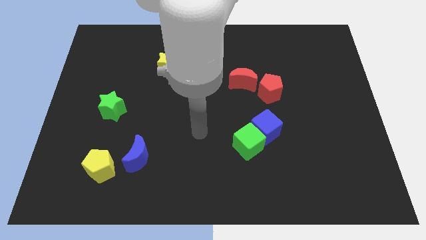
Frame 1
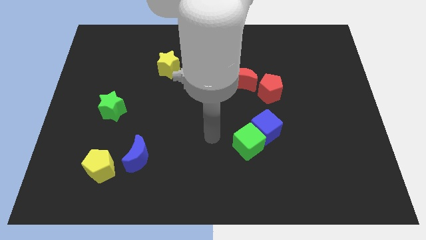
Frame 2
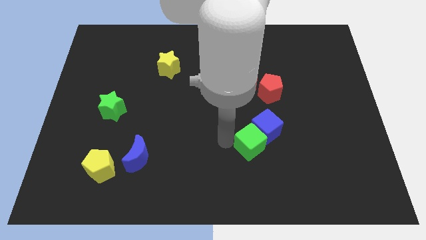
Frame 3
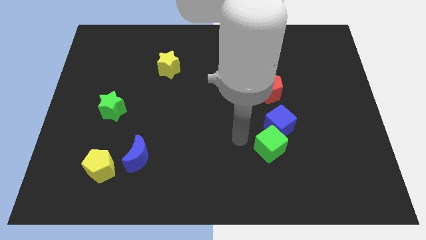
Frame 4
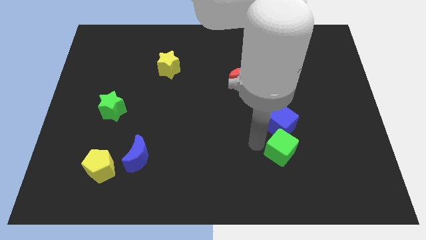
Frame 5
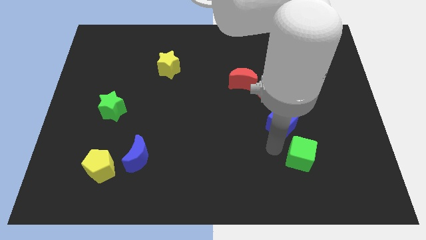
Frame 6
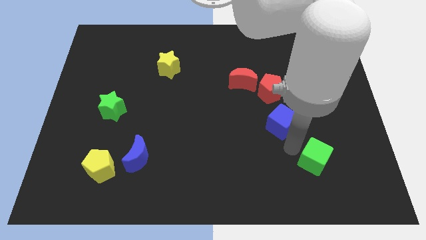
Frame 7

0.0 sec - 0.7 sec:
separate the blue cube from the green cube

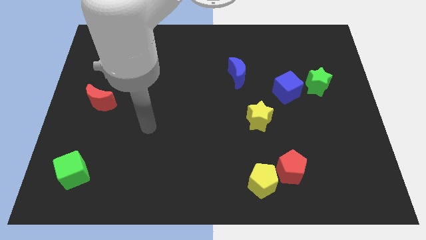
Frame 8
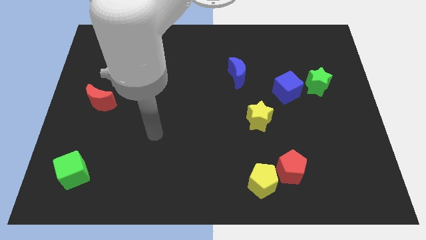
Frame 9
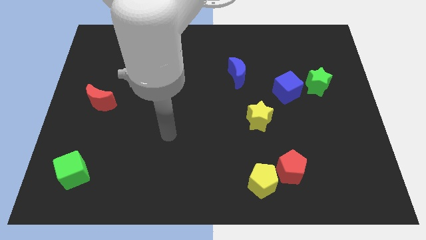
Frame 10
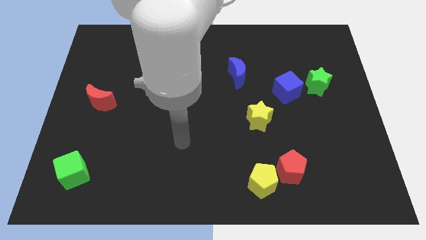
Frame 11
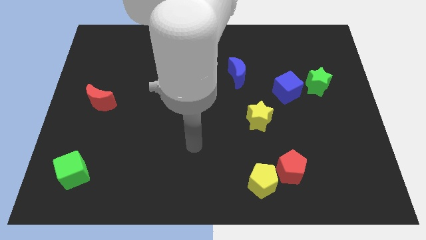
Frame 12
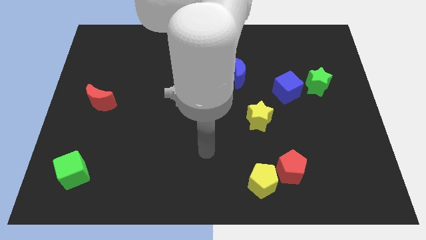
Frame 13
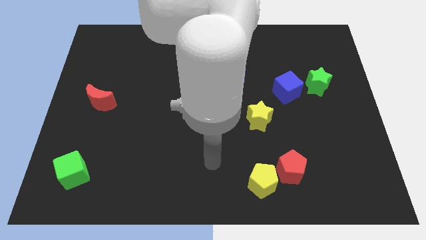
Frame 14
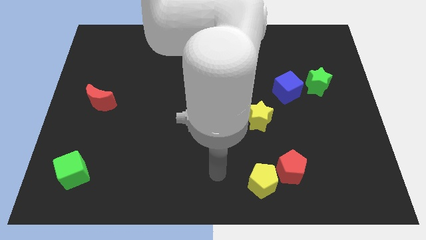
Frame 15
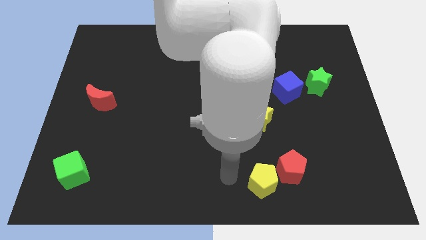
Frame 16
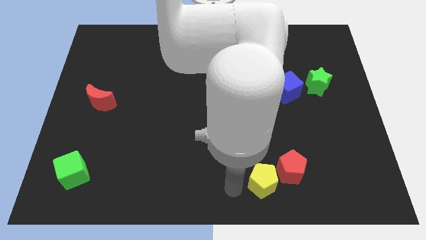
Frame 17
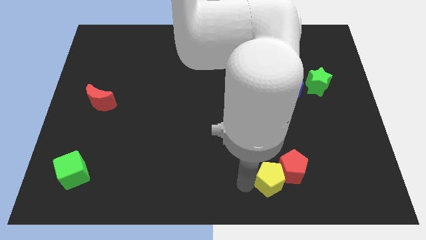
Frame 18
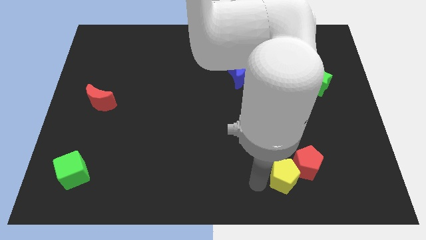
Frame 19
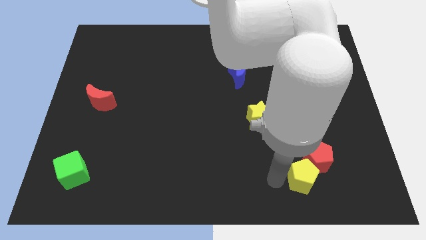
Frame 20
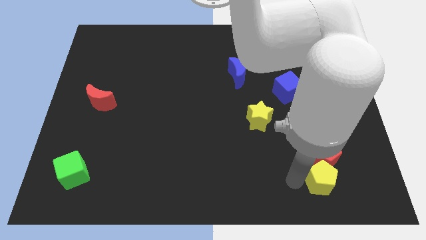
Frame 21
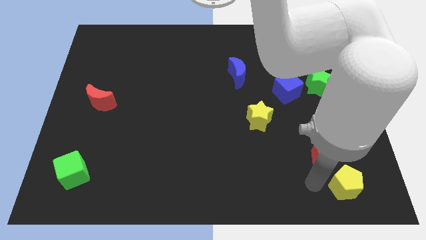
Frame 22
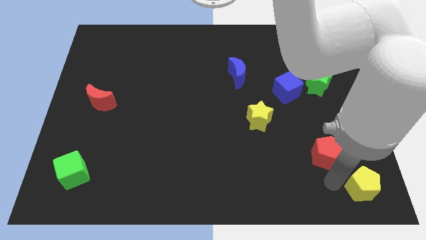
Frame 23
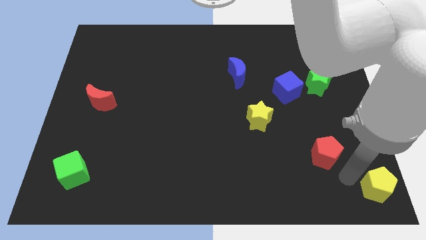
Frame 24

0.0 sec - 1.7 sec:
separate the red pentagon from the yellow pentagon

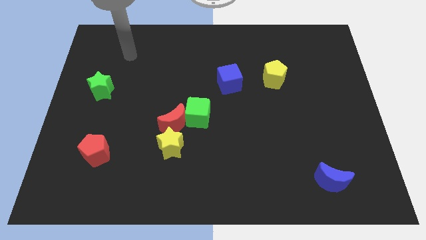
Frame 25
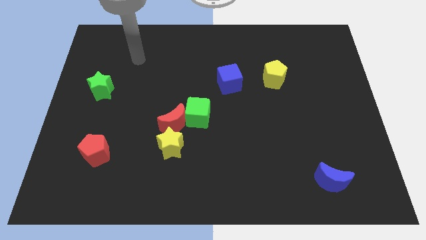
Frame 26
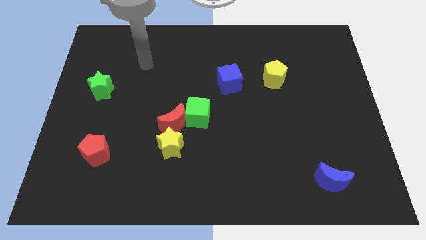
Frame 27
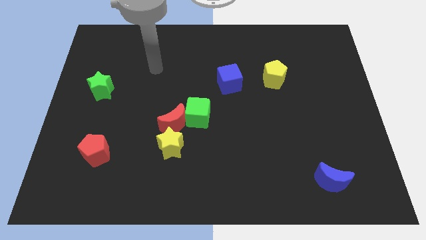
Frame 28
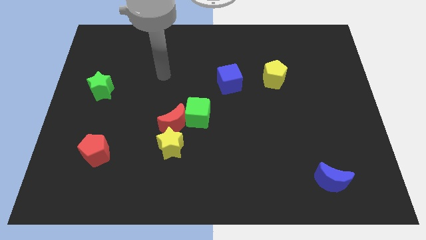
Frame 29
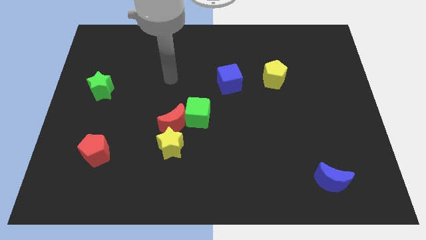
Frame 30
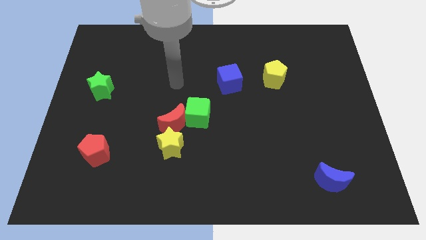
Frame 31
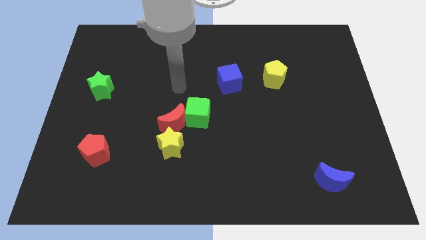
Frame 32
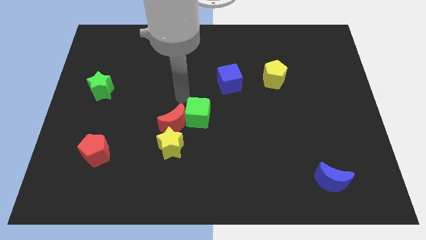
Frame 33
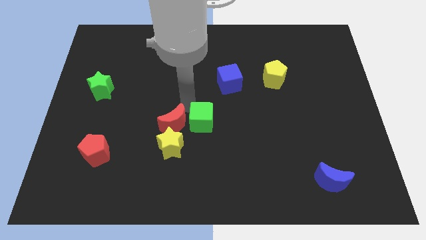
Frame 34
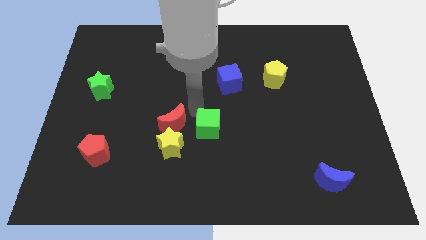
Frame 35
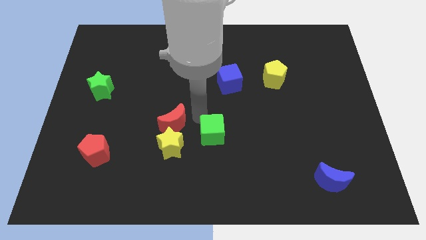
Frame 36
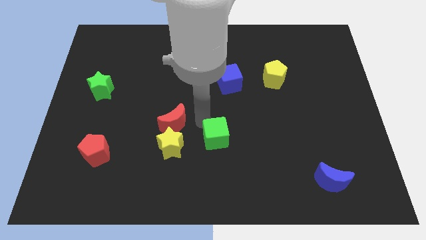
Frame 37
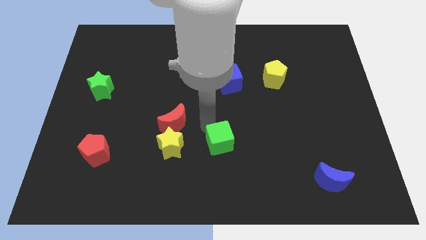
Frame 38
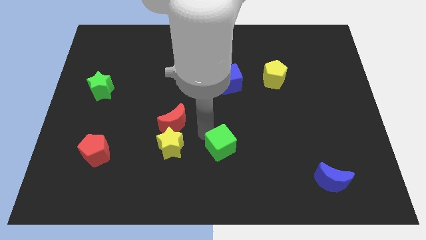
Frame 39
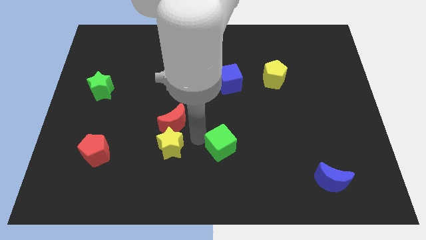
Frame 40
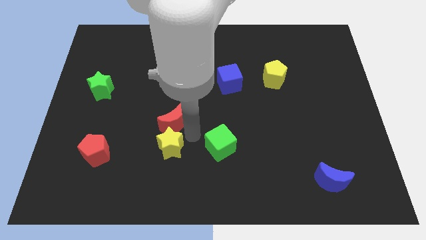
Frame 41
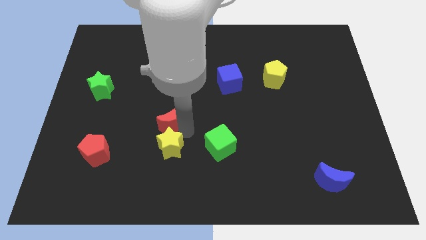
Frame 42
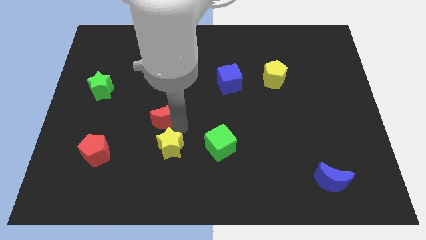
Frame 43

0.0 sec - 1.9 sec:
pull the red moon apart from the green cube and yellow star

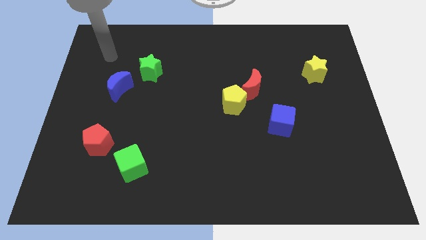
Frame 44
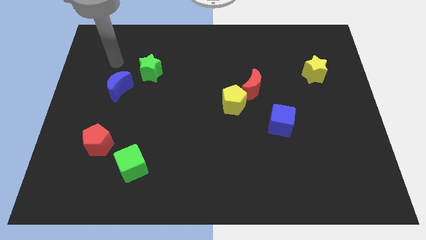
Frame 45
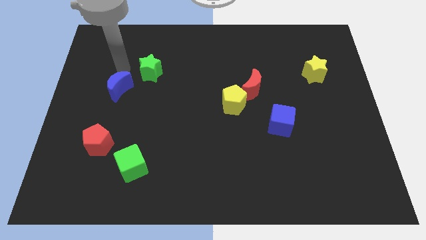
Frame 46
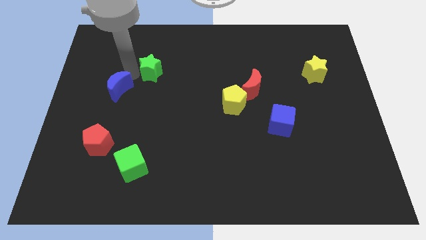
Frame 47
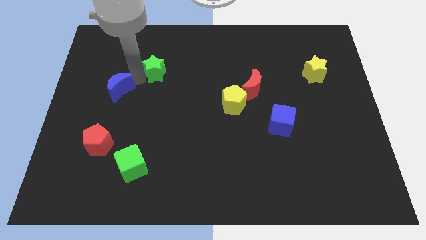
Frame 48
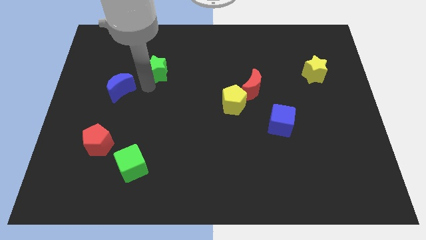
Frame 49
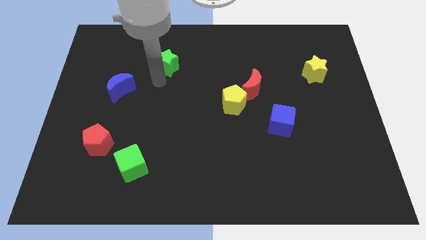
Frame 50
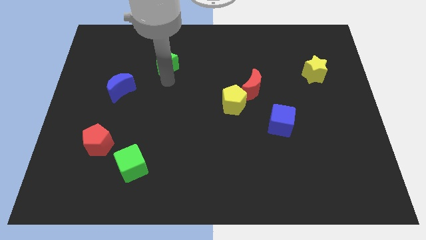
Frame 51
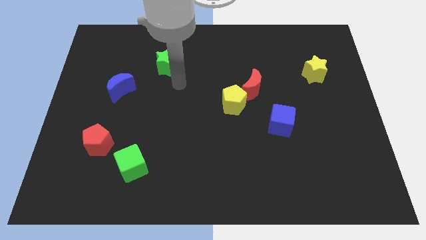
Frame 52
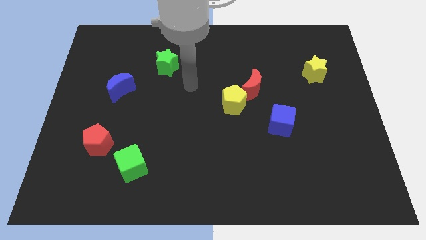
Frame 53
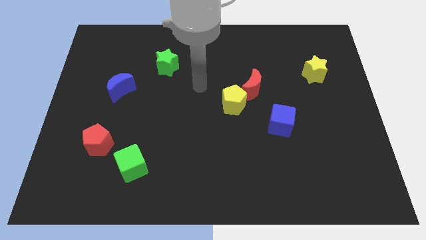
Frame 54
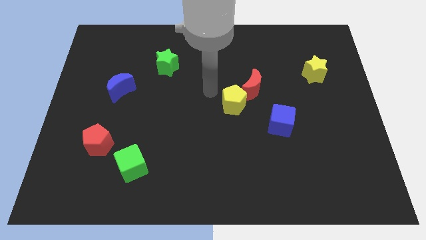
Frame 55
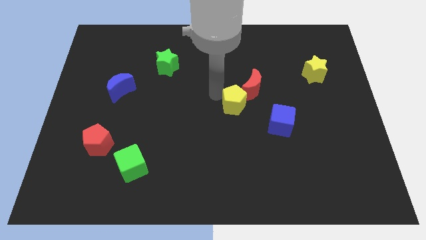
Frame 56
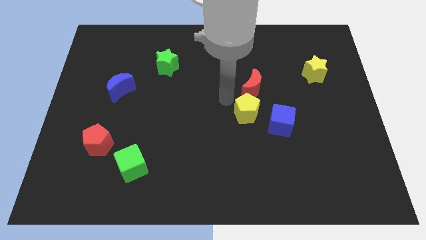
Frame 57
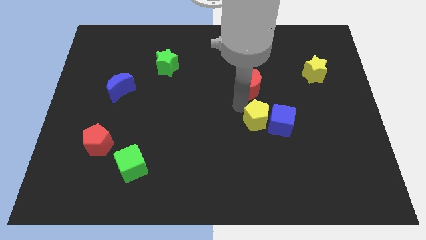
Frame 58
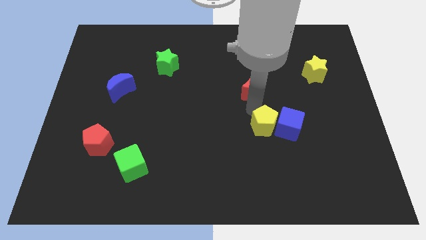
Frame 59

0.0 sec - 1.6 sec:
pull the red moon apart from the yellow pentagon

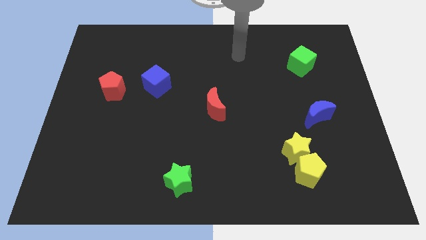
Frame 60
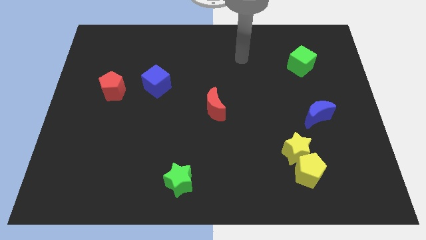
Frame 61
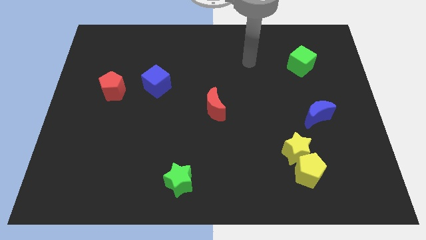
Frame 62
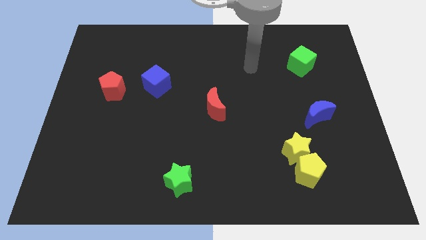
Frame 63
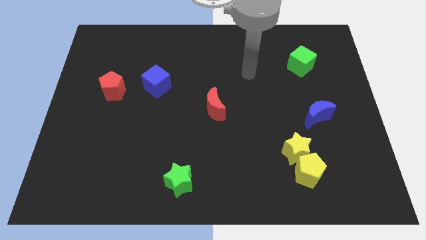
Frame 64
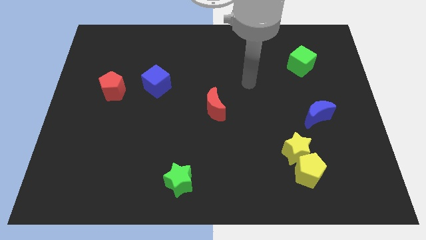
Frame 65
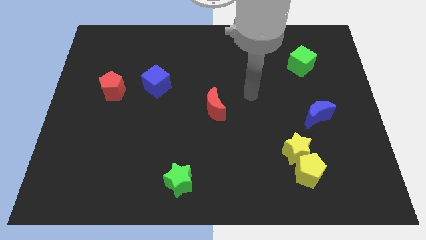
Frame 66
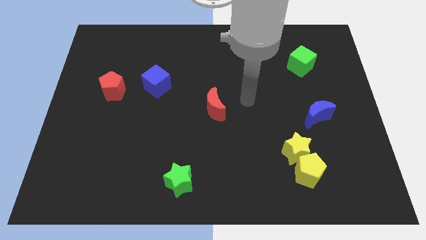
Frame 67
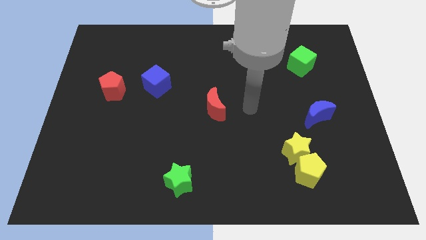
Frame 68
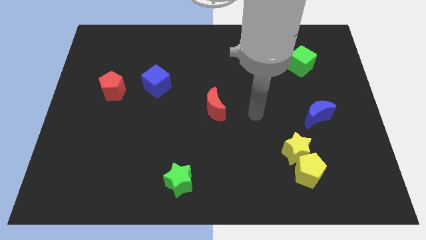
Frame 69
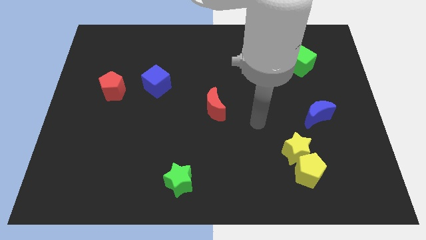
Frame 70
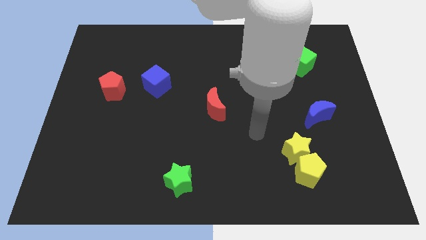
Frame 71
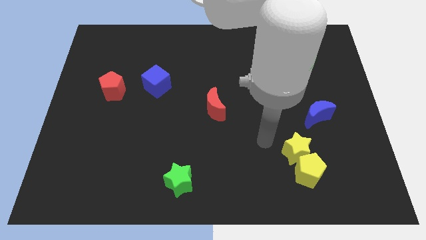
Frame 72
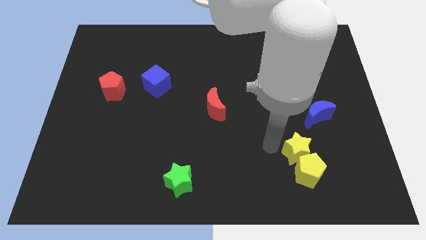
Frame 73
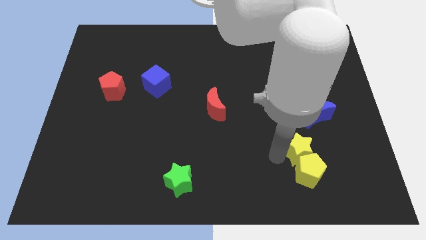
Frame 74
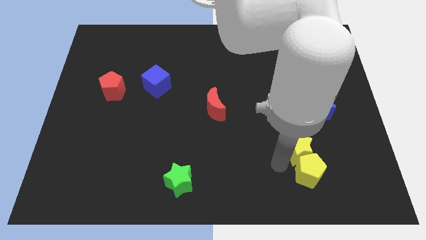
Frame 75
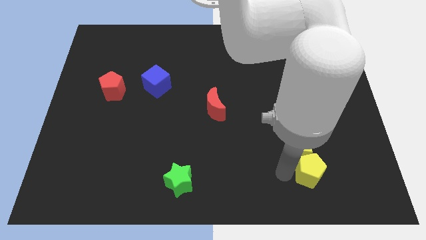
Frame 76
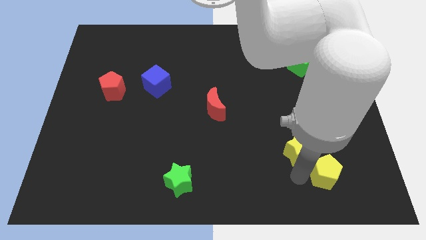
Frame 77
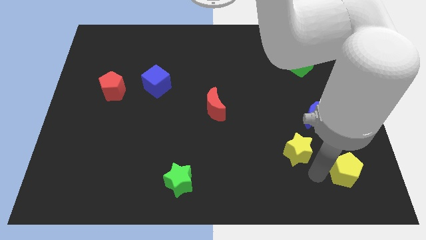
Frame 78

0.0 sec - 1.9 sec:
separate the yellow star from the yellow pentagon

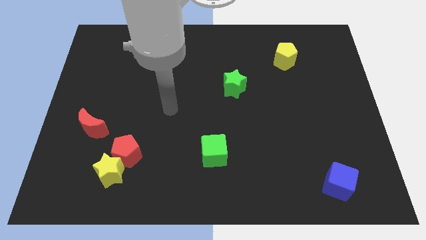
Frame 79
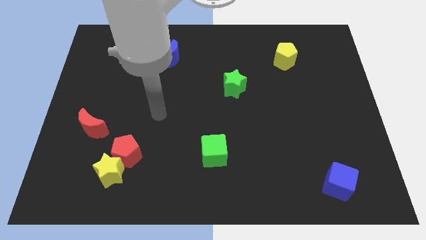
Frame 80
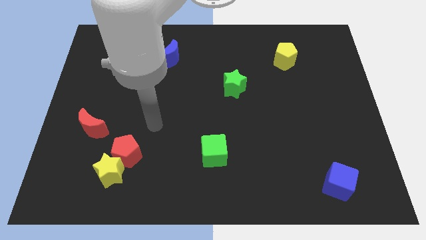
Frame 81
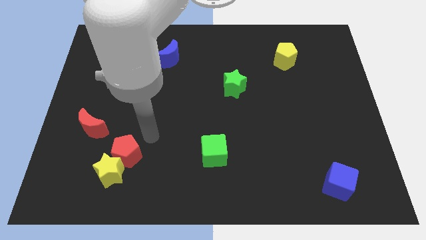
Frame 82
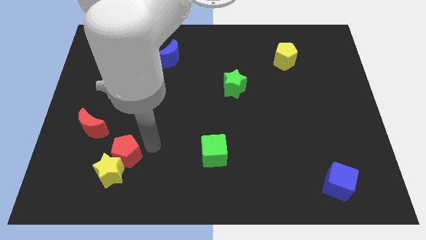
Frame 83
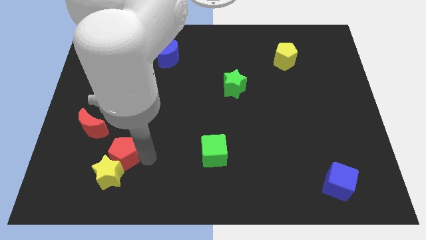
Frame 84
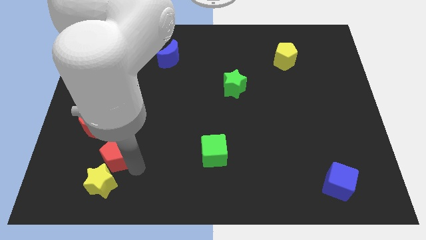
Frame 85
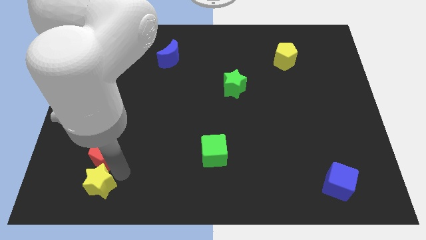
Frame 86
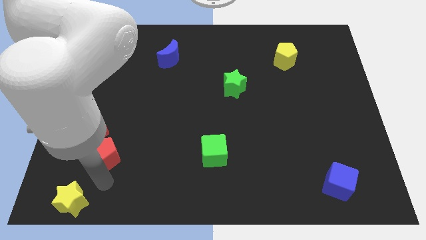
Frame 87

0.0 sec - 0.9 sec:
separate the red pentagon from the yellow star

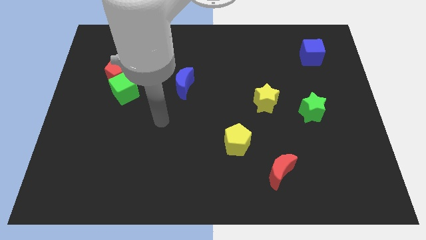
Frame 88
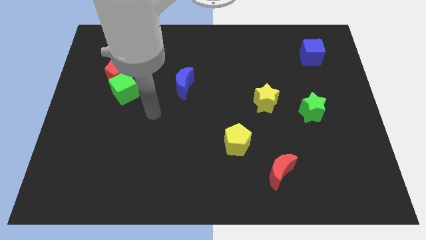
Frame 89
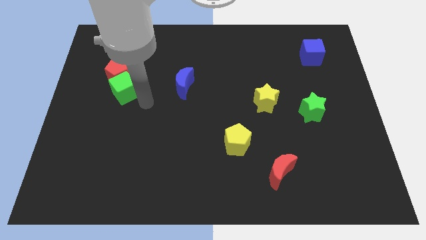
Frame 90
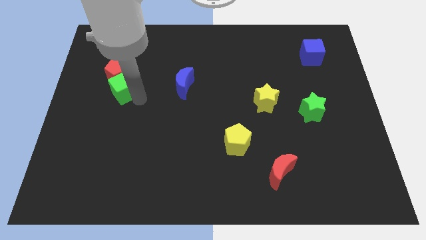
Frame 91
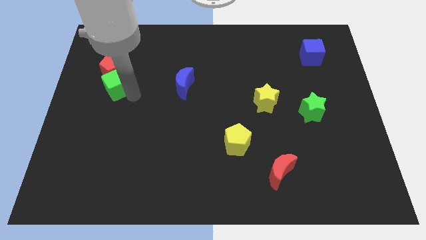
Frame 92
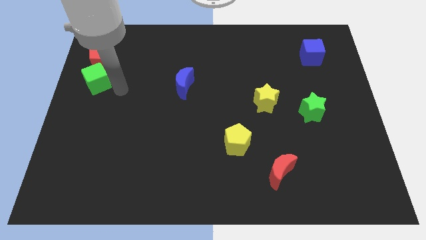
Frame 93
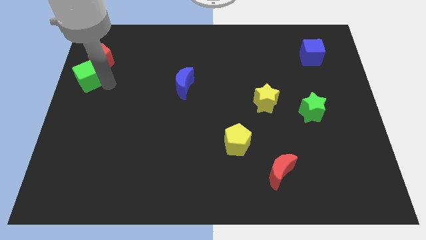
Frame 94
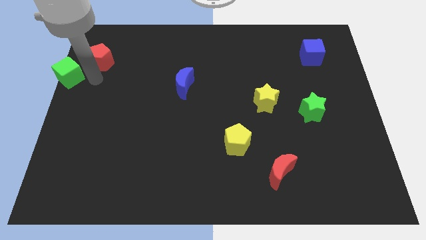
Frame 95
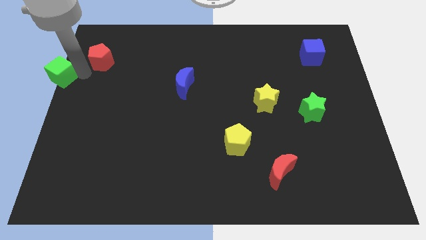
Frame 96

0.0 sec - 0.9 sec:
pull the red pentagon apart from the green cube
